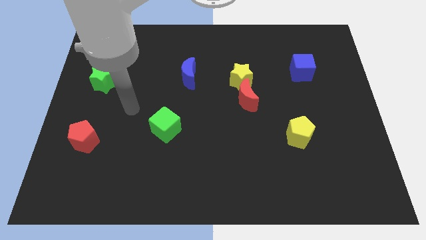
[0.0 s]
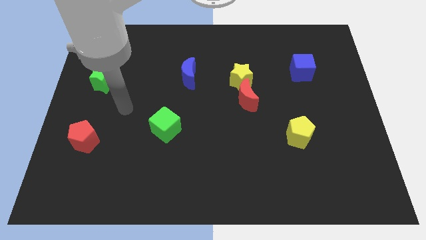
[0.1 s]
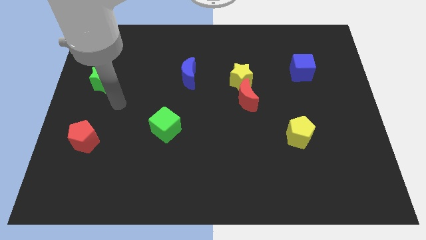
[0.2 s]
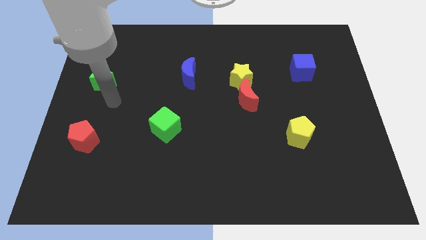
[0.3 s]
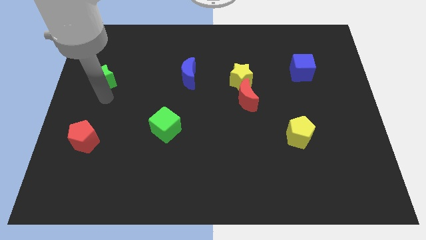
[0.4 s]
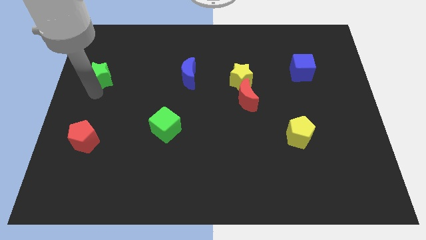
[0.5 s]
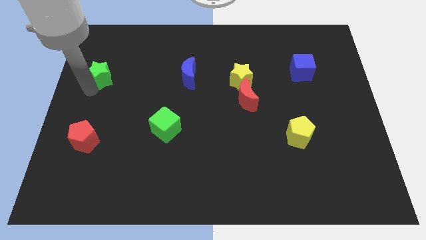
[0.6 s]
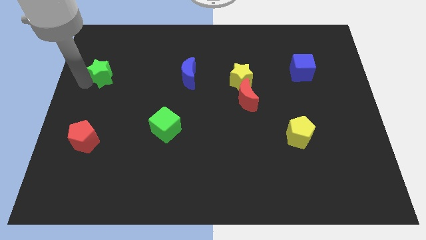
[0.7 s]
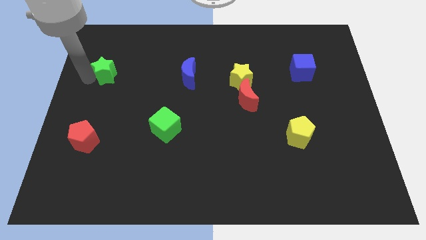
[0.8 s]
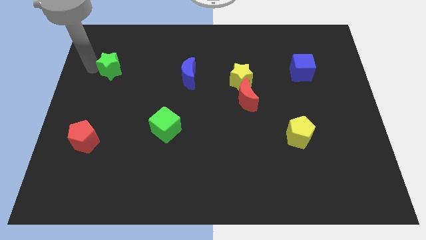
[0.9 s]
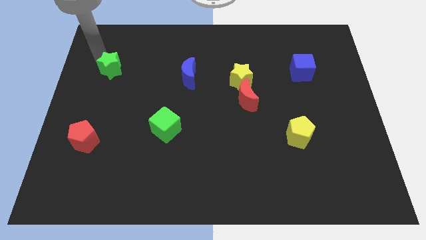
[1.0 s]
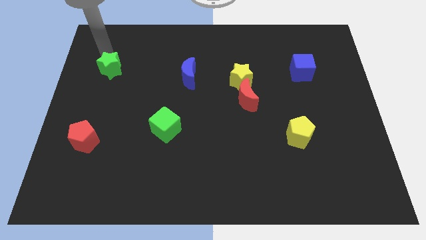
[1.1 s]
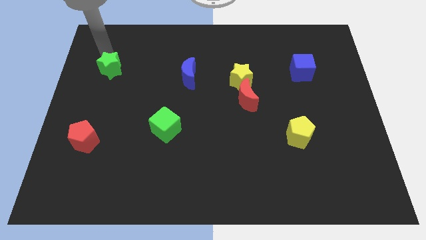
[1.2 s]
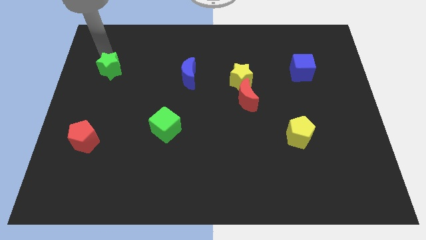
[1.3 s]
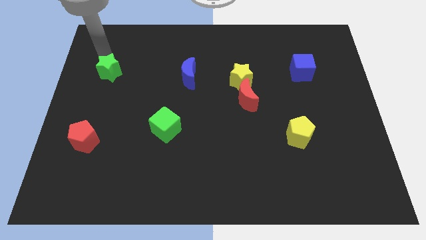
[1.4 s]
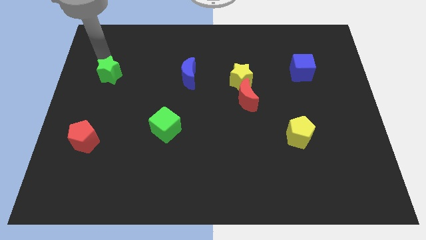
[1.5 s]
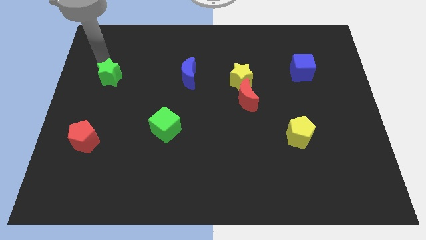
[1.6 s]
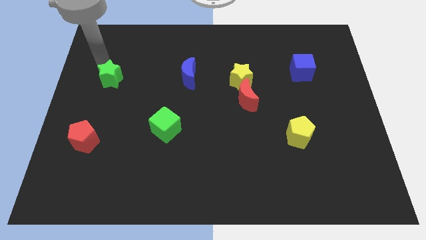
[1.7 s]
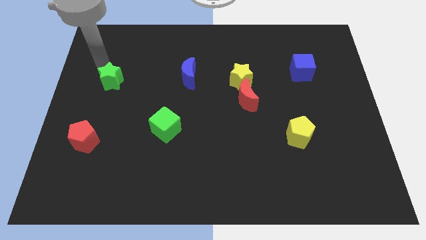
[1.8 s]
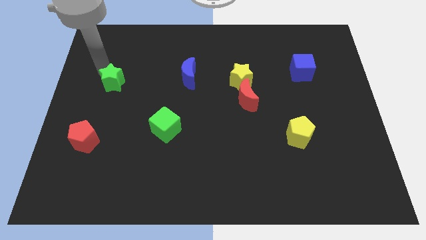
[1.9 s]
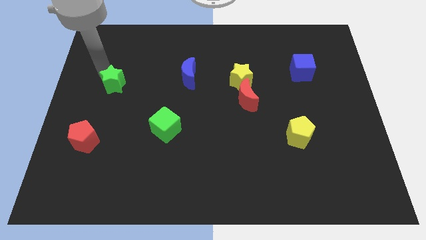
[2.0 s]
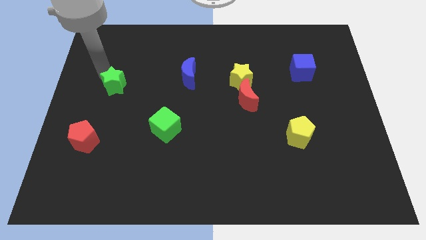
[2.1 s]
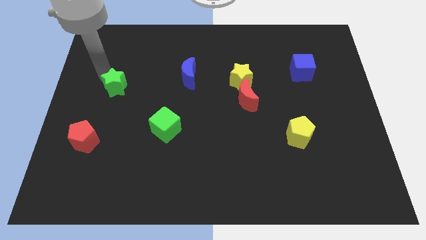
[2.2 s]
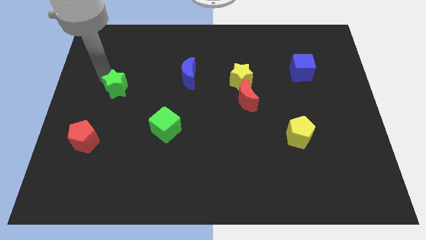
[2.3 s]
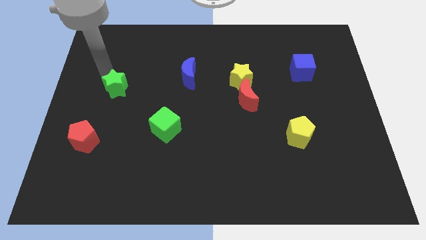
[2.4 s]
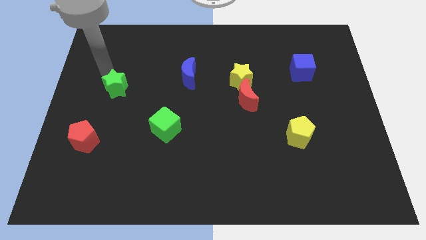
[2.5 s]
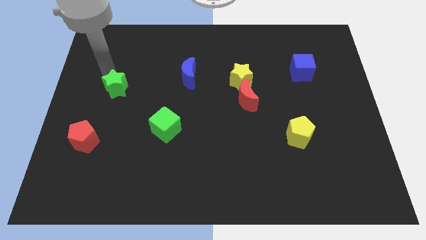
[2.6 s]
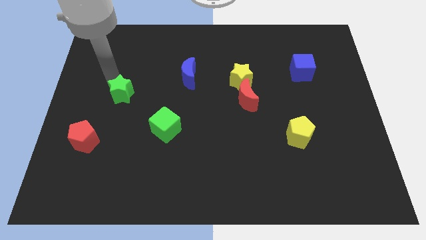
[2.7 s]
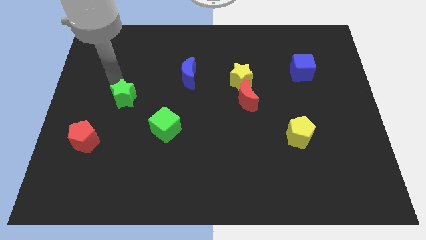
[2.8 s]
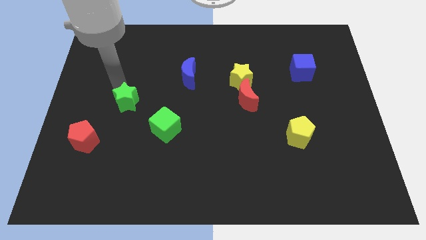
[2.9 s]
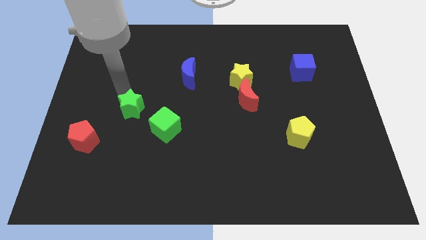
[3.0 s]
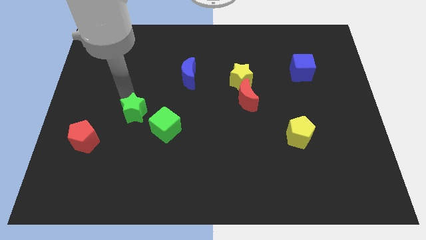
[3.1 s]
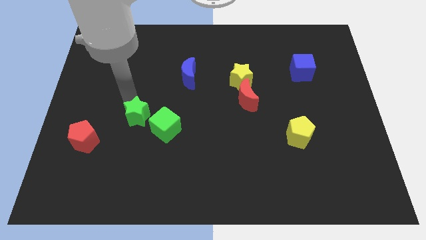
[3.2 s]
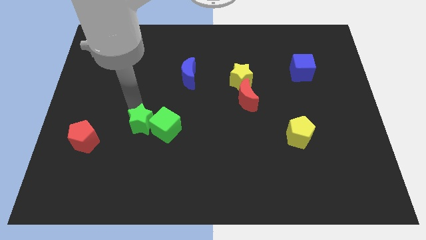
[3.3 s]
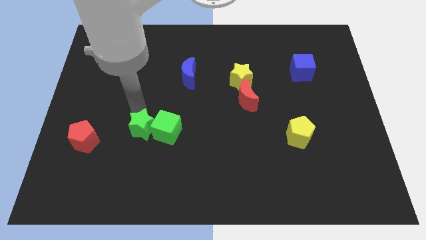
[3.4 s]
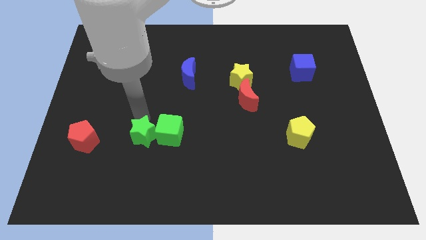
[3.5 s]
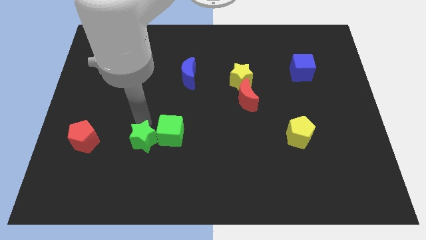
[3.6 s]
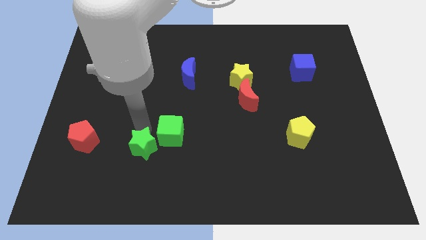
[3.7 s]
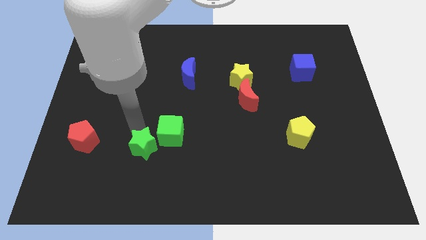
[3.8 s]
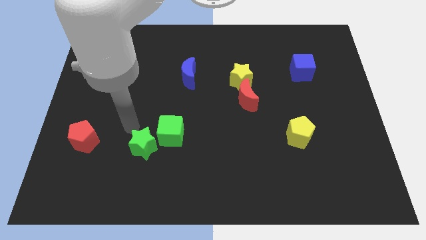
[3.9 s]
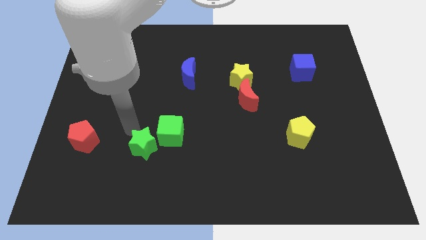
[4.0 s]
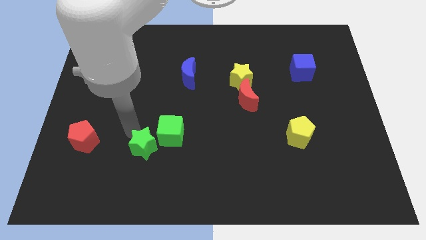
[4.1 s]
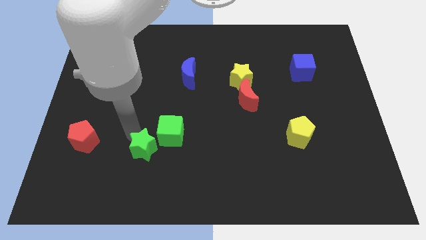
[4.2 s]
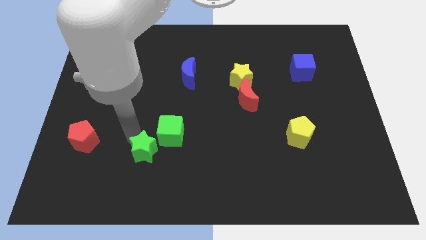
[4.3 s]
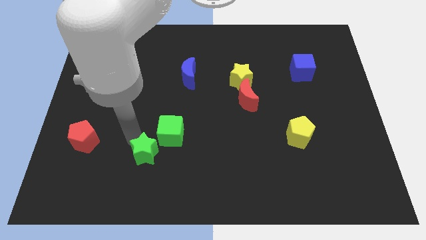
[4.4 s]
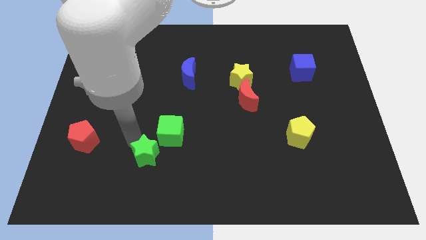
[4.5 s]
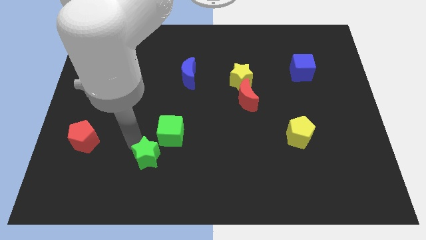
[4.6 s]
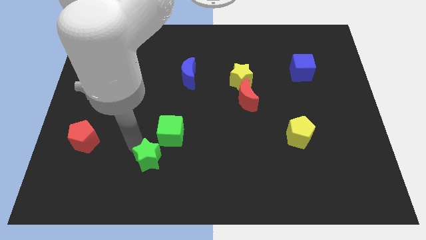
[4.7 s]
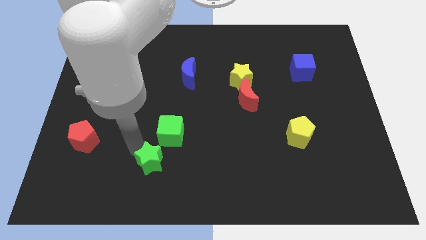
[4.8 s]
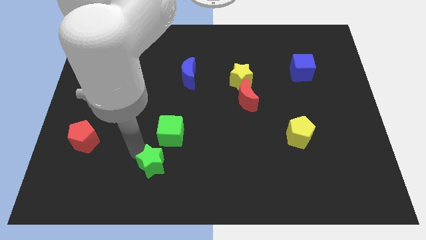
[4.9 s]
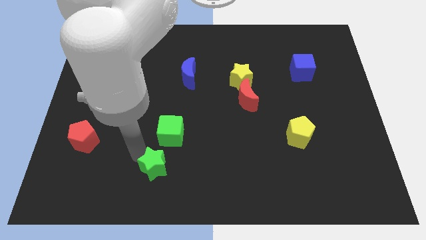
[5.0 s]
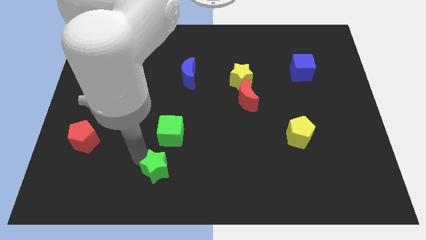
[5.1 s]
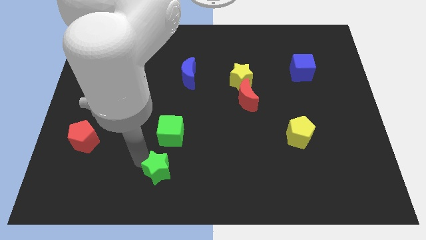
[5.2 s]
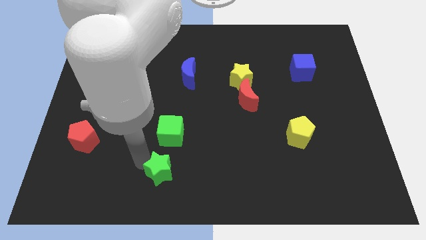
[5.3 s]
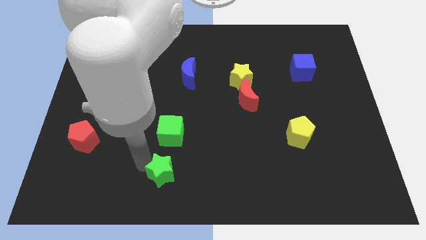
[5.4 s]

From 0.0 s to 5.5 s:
push the green star to the bottom side

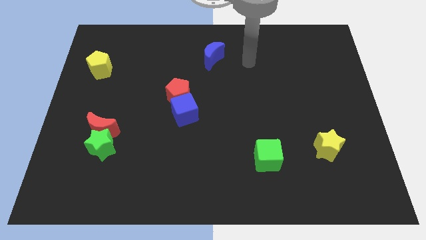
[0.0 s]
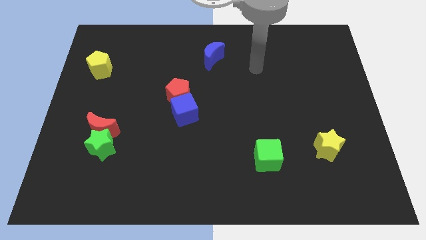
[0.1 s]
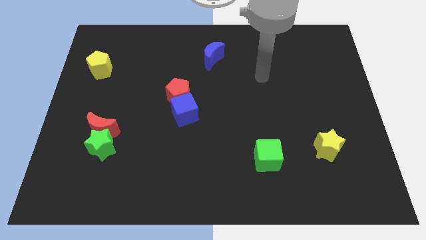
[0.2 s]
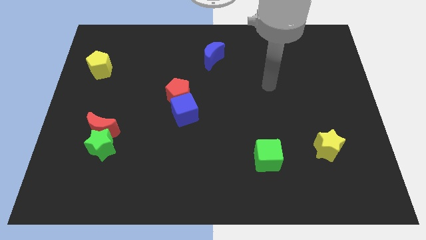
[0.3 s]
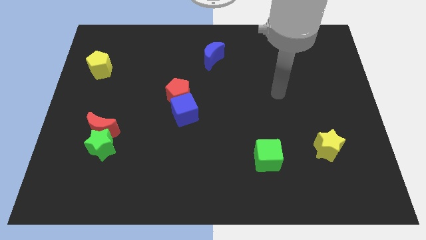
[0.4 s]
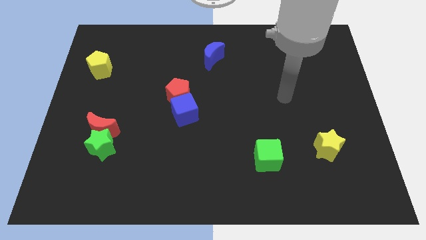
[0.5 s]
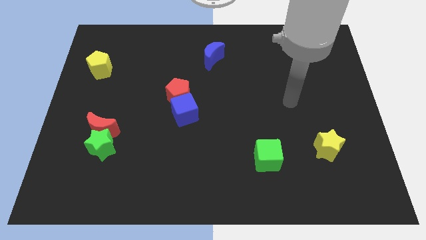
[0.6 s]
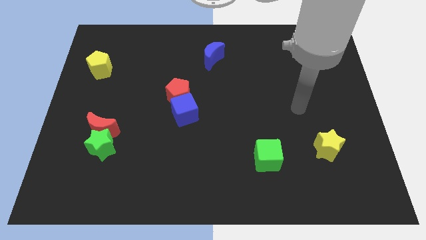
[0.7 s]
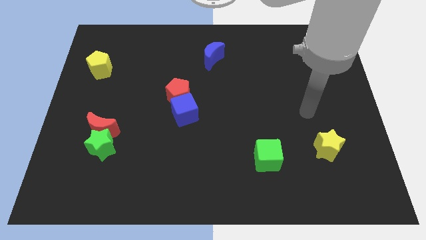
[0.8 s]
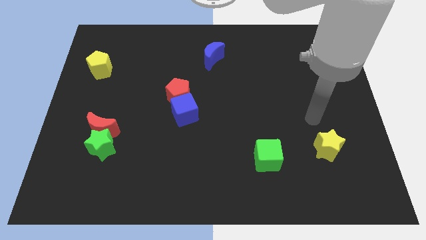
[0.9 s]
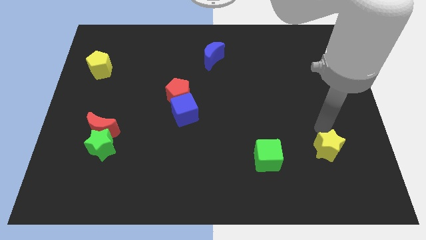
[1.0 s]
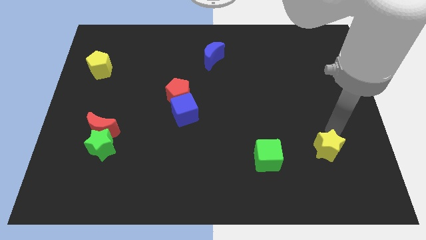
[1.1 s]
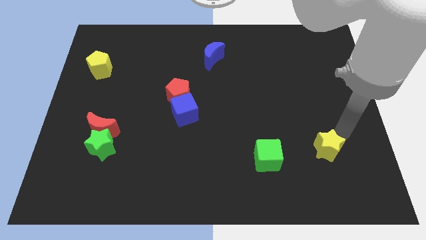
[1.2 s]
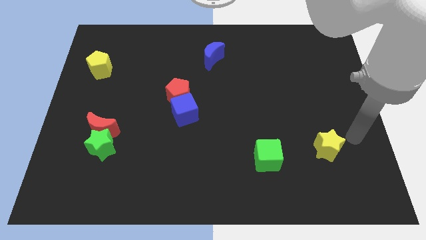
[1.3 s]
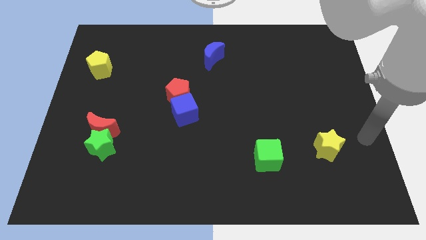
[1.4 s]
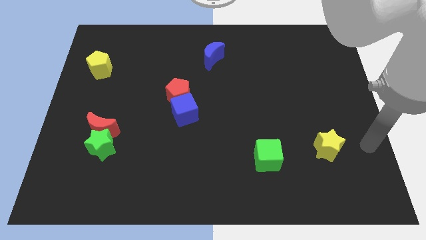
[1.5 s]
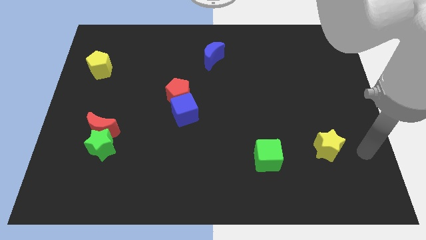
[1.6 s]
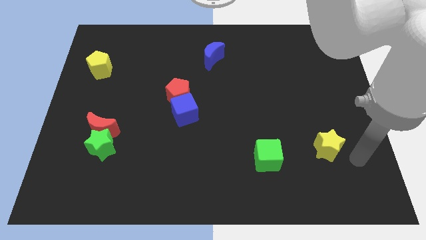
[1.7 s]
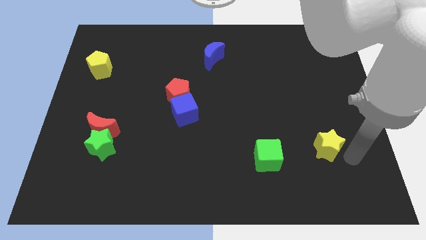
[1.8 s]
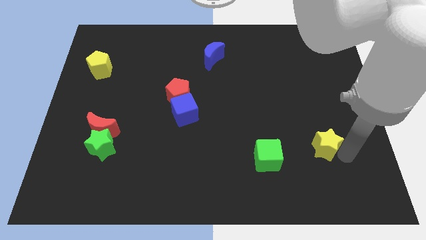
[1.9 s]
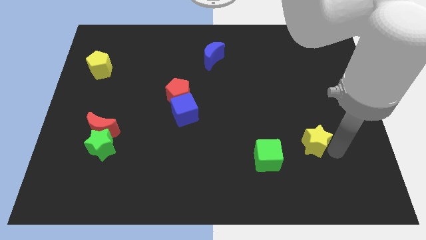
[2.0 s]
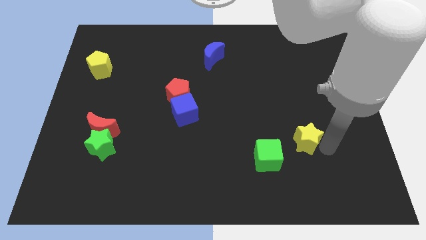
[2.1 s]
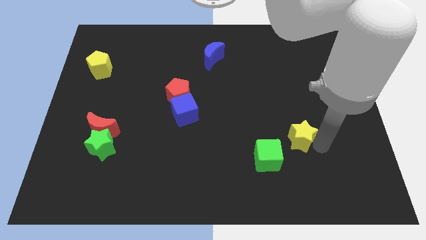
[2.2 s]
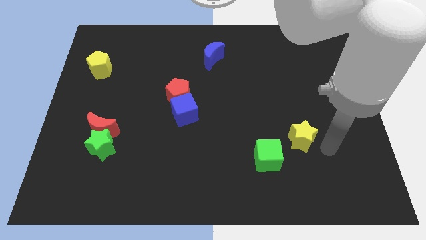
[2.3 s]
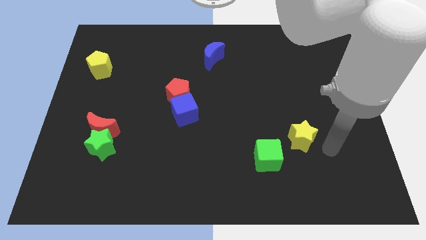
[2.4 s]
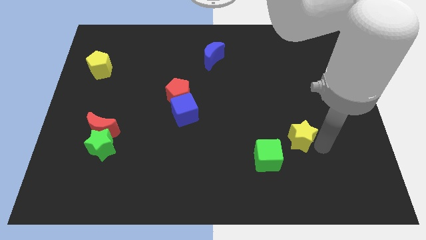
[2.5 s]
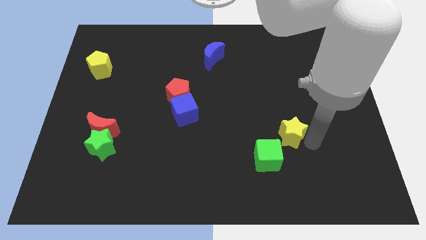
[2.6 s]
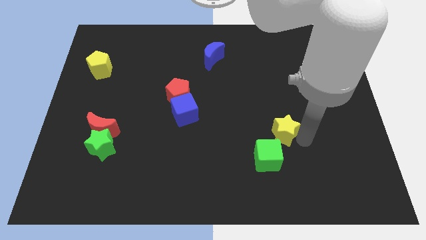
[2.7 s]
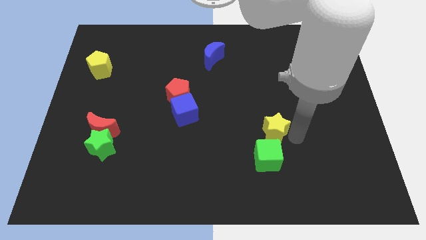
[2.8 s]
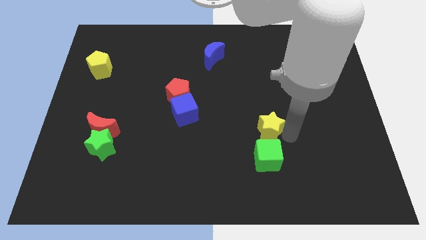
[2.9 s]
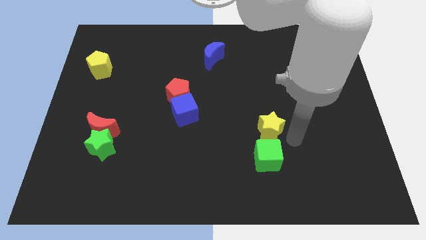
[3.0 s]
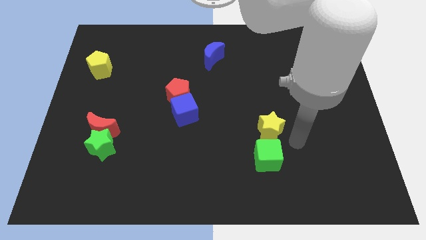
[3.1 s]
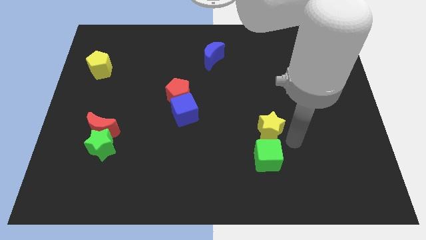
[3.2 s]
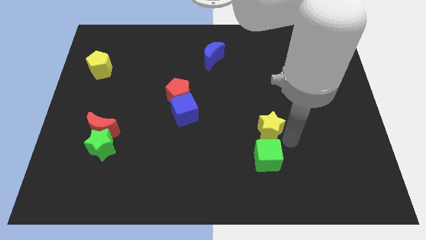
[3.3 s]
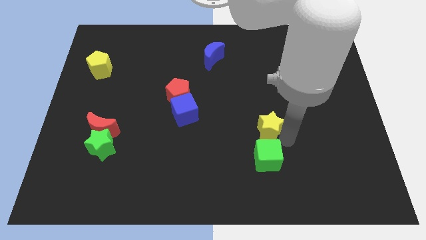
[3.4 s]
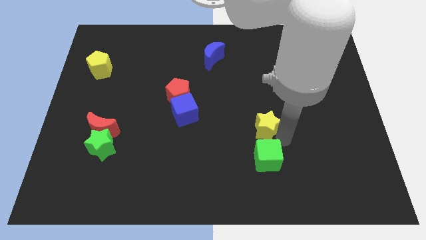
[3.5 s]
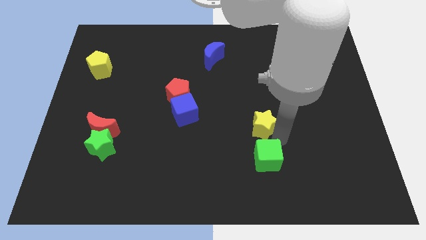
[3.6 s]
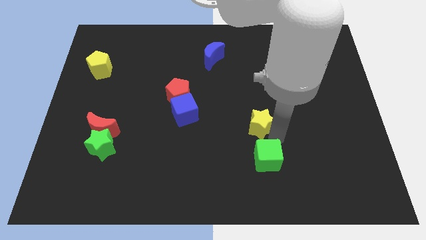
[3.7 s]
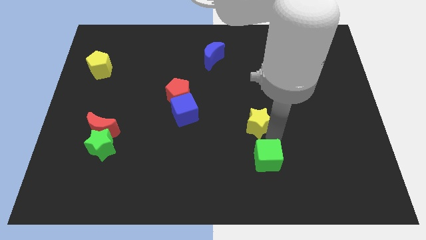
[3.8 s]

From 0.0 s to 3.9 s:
push the yellow star to the center
